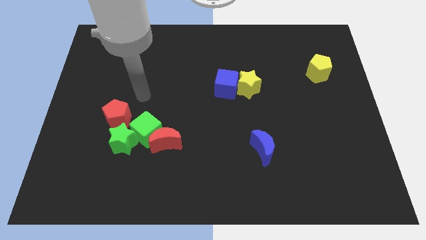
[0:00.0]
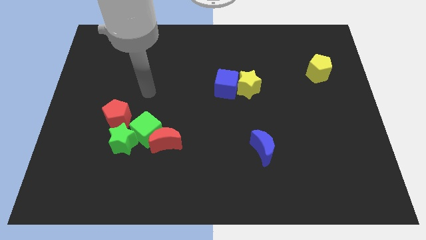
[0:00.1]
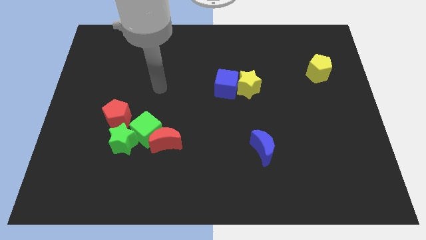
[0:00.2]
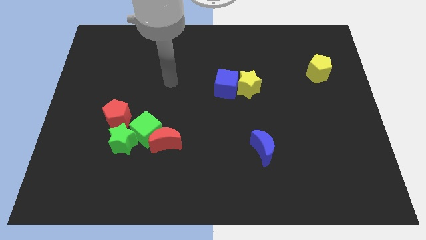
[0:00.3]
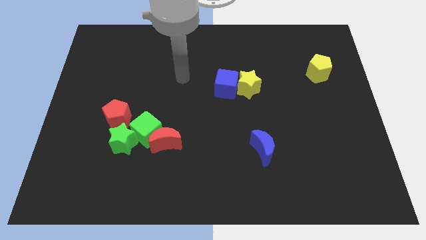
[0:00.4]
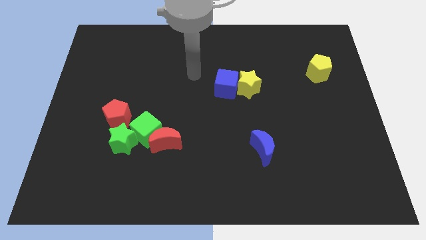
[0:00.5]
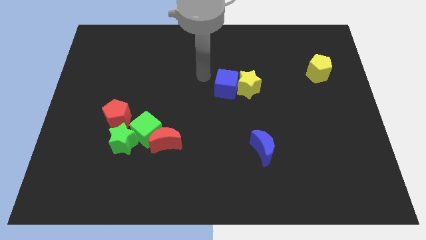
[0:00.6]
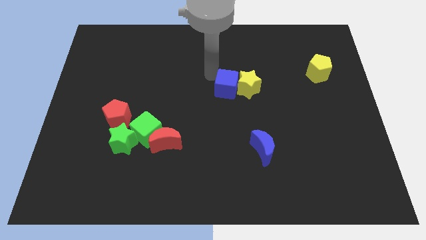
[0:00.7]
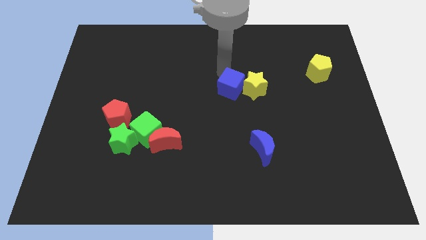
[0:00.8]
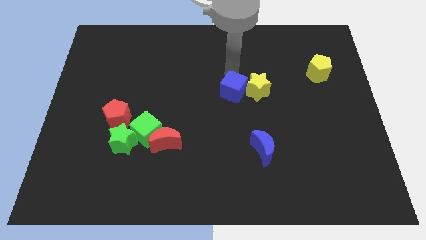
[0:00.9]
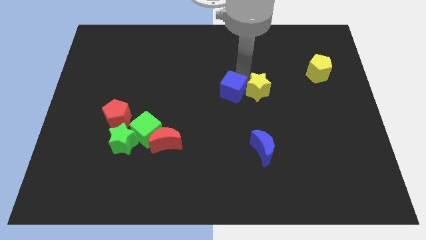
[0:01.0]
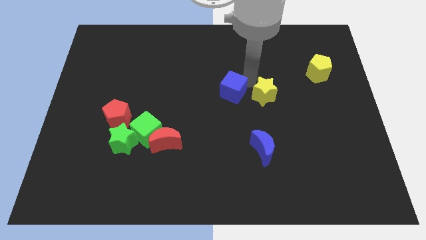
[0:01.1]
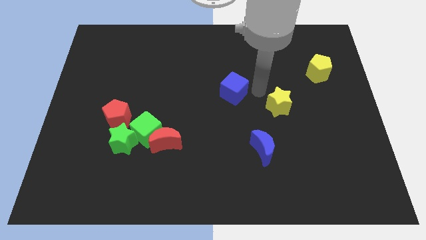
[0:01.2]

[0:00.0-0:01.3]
separate the blue cube from the yellow star

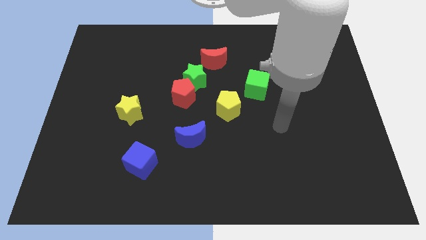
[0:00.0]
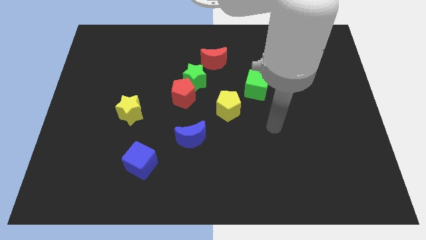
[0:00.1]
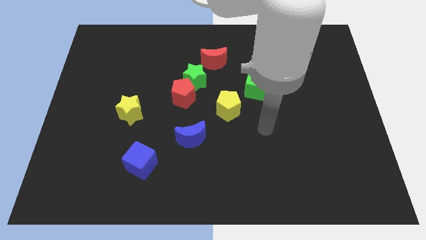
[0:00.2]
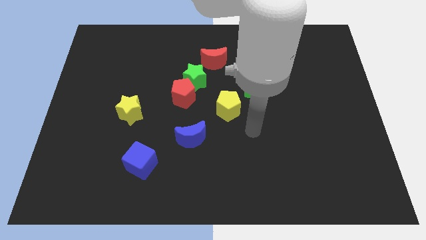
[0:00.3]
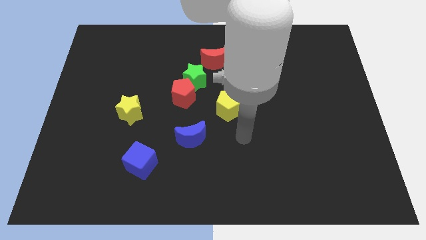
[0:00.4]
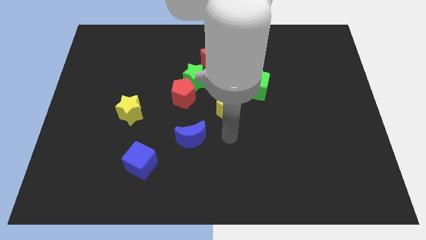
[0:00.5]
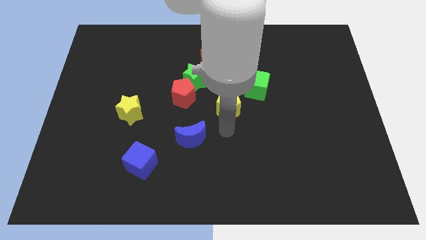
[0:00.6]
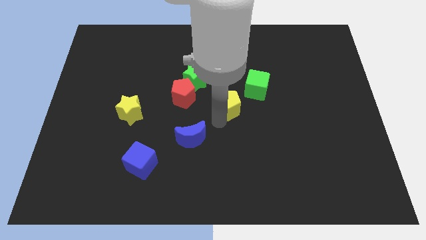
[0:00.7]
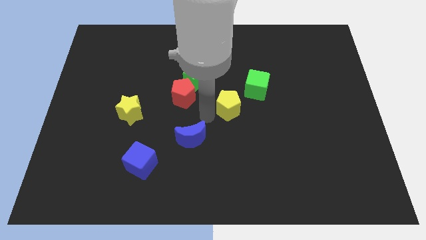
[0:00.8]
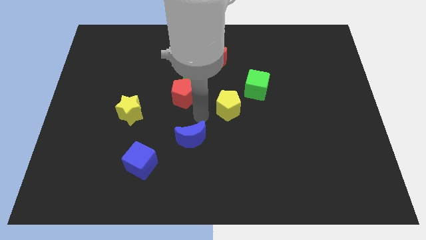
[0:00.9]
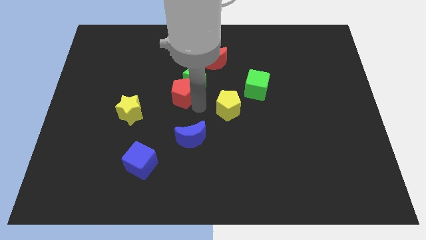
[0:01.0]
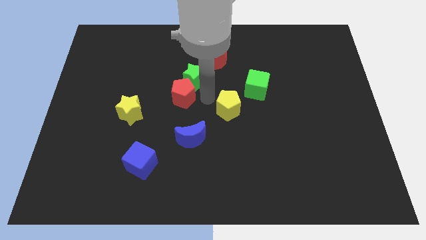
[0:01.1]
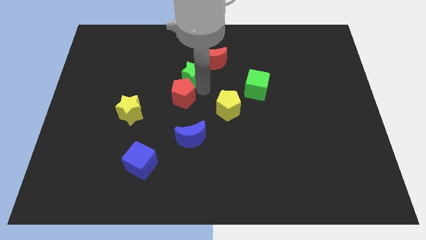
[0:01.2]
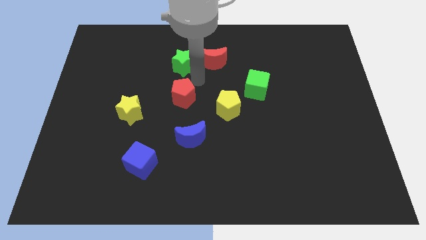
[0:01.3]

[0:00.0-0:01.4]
separate the red pentagon from the green star

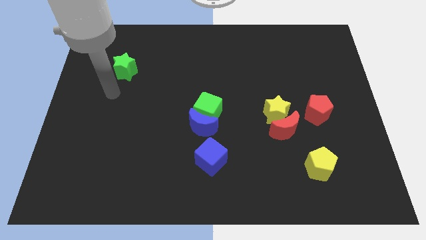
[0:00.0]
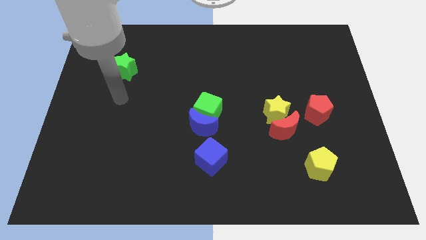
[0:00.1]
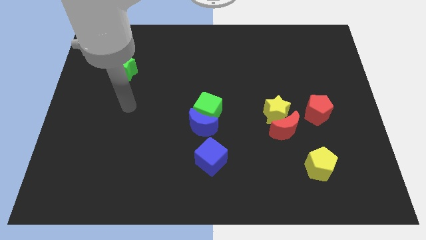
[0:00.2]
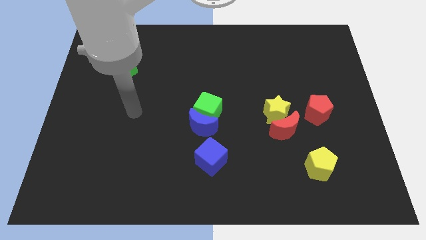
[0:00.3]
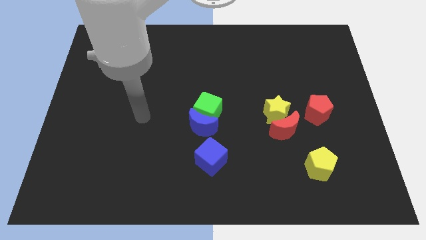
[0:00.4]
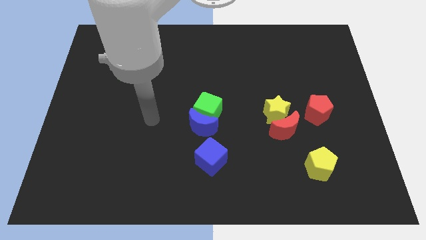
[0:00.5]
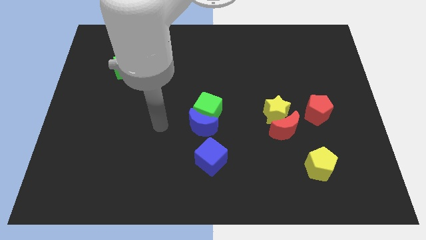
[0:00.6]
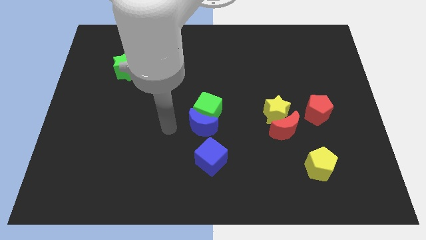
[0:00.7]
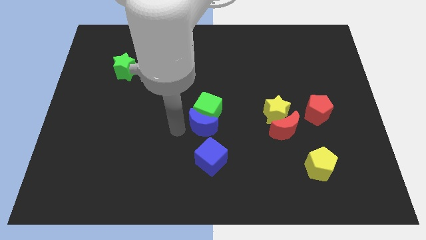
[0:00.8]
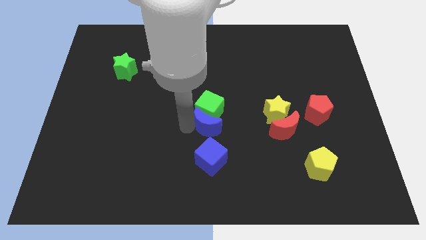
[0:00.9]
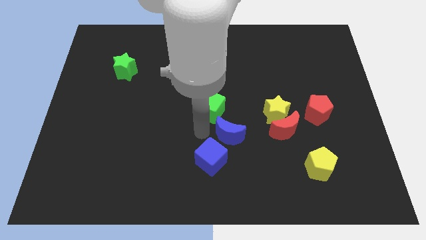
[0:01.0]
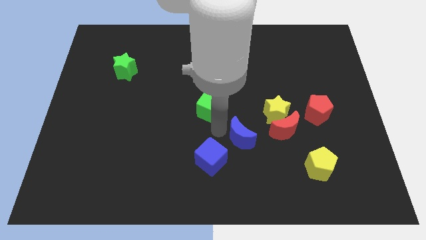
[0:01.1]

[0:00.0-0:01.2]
pull the green cube apart from the blue moon

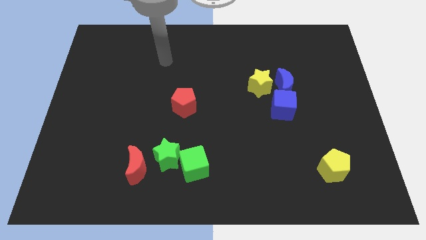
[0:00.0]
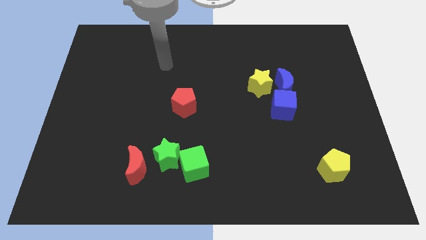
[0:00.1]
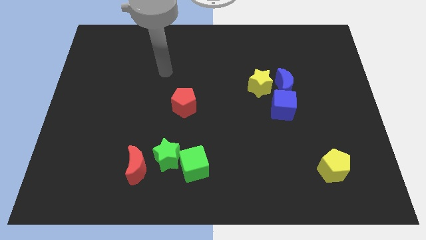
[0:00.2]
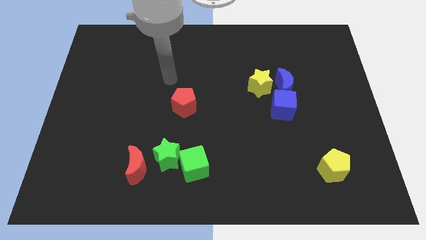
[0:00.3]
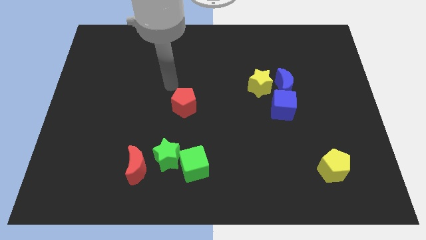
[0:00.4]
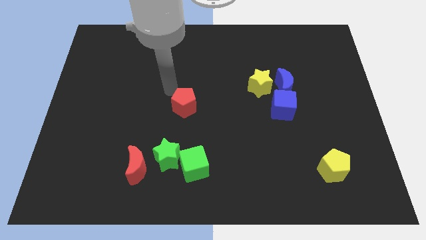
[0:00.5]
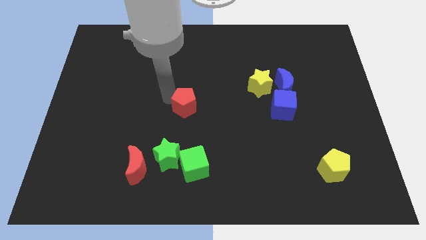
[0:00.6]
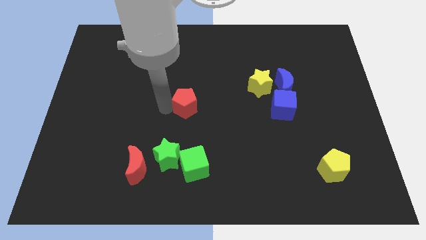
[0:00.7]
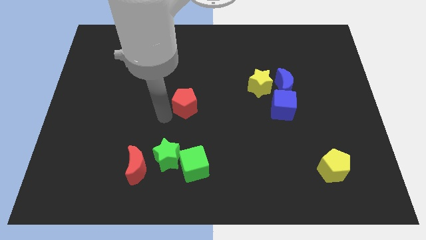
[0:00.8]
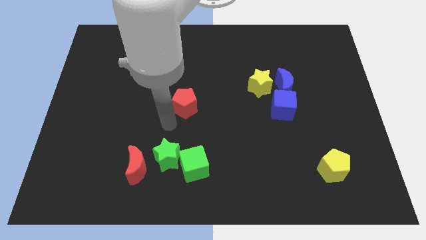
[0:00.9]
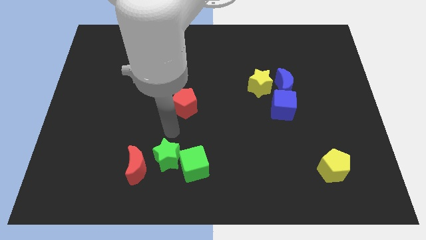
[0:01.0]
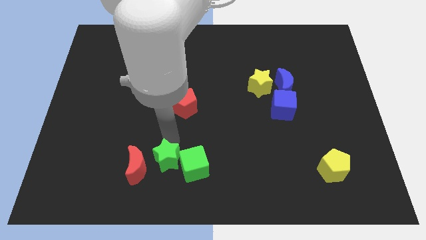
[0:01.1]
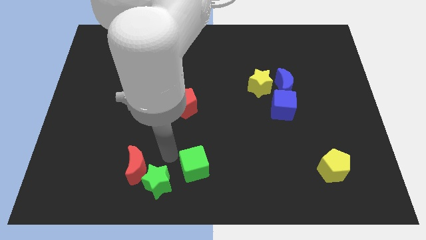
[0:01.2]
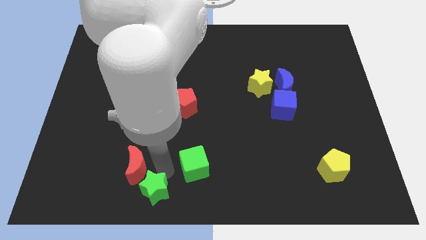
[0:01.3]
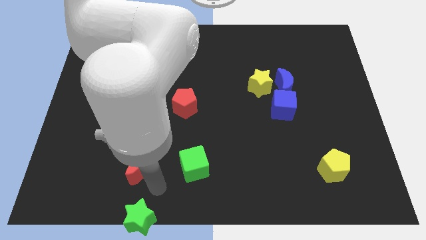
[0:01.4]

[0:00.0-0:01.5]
move the red moon away from the green star

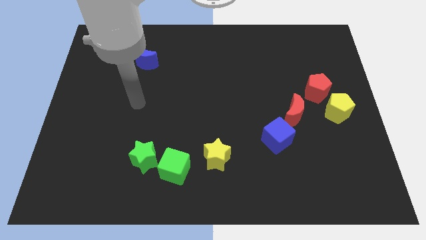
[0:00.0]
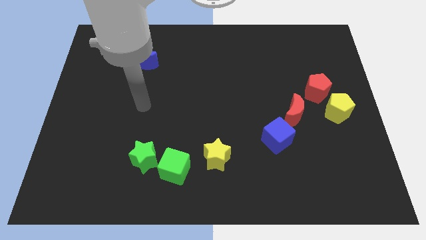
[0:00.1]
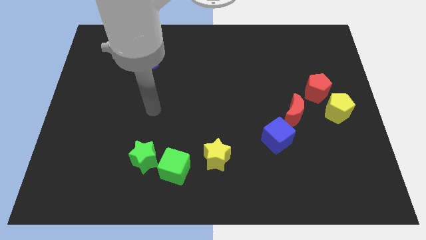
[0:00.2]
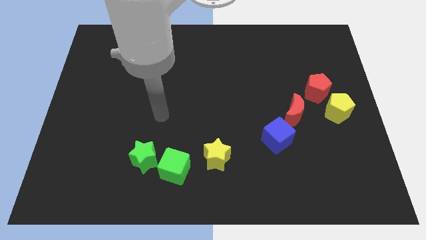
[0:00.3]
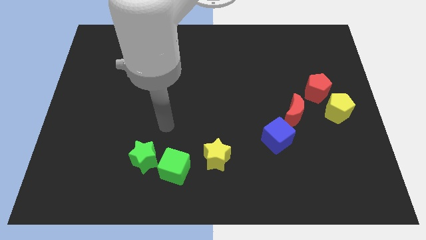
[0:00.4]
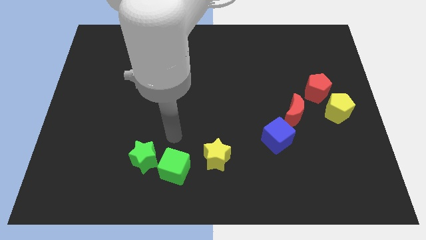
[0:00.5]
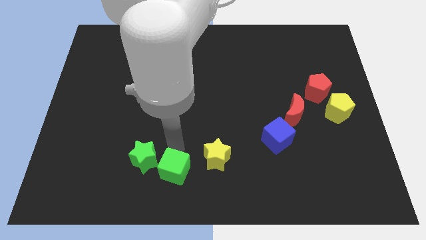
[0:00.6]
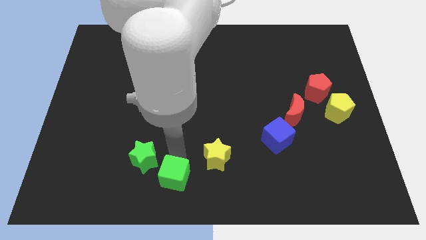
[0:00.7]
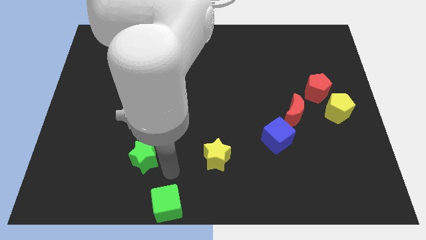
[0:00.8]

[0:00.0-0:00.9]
move the green star away from the green cube

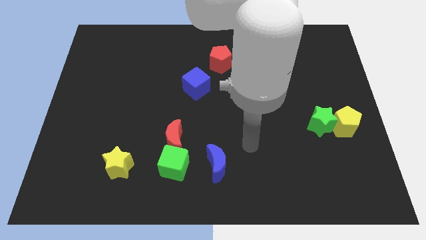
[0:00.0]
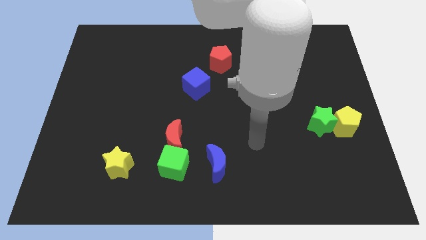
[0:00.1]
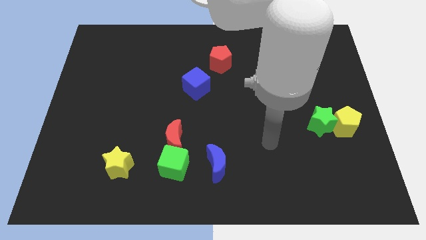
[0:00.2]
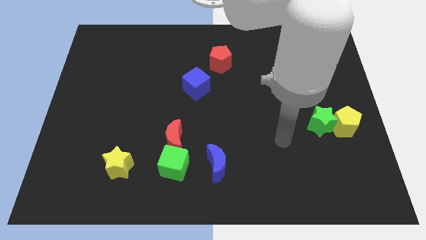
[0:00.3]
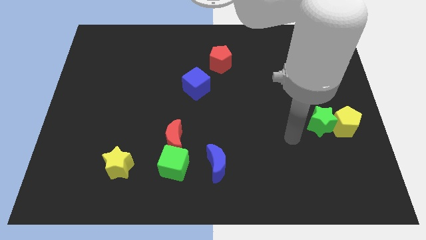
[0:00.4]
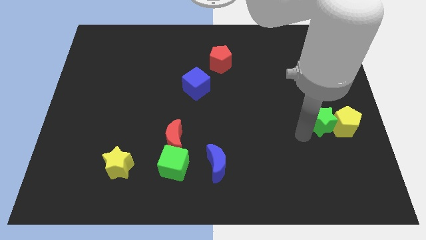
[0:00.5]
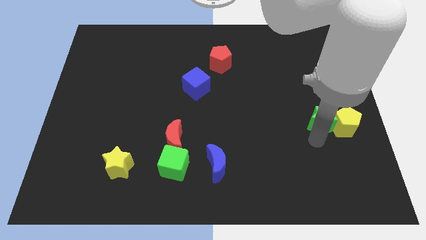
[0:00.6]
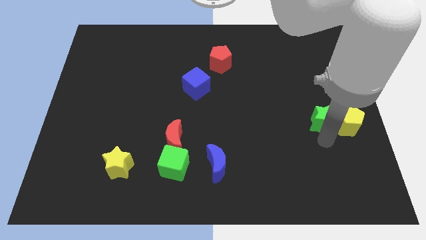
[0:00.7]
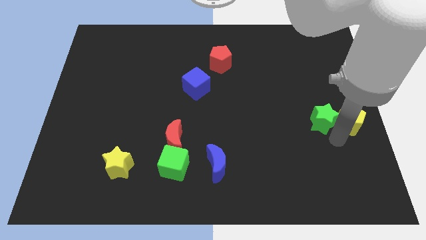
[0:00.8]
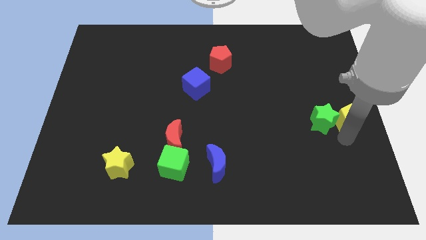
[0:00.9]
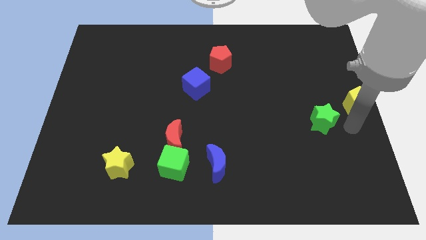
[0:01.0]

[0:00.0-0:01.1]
pull the green star apart from the yellow pentagon

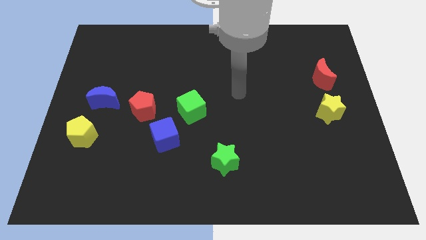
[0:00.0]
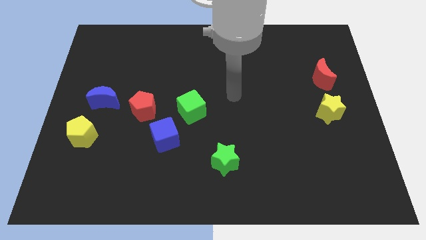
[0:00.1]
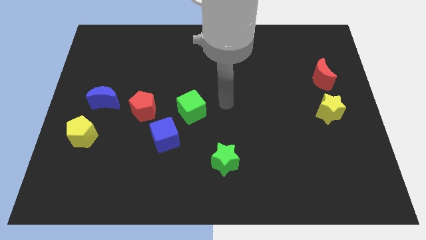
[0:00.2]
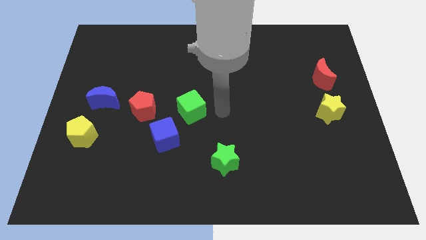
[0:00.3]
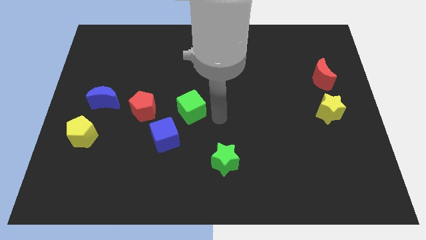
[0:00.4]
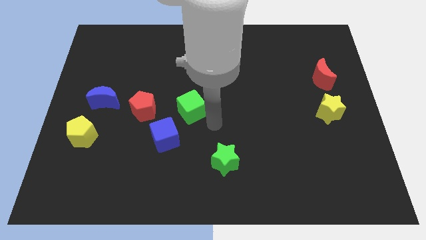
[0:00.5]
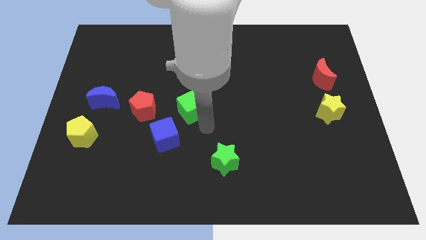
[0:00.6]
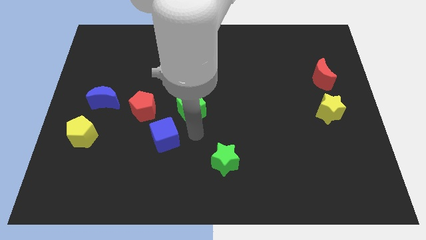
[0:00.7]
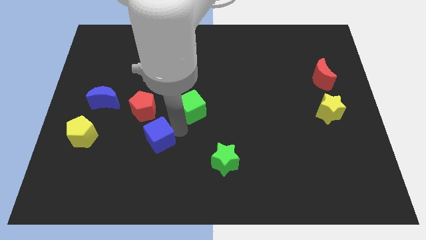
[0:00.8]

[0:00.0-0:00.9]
move the green cube away from the blue cube

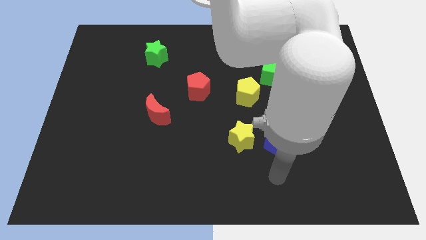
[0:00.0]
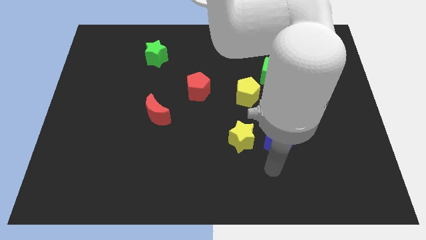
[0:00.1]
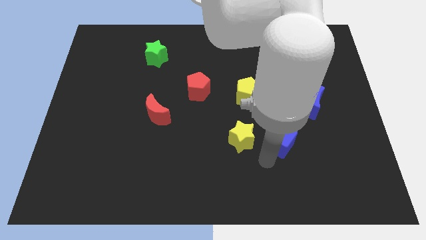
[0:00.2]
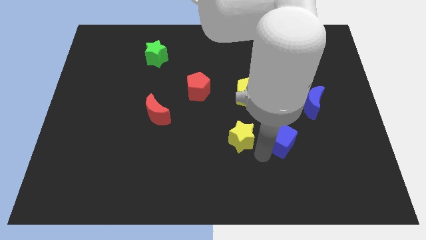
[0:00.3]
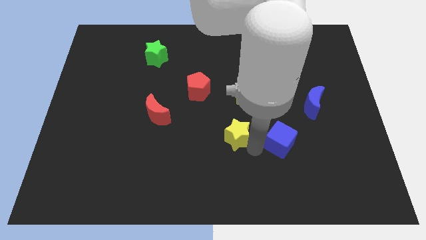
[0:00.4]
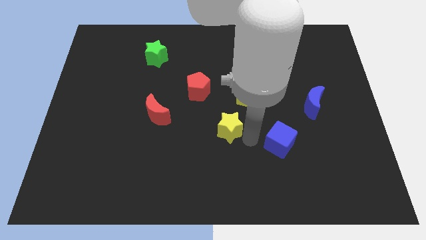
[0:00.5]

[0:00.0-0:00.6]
pull the blue cube apart from the yellow star

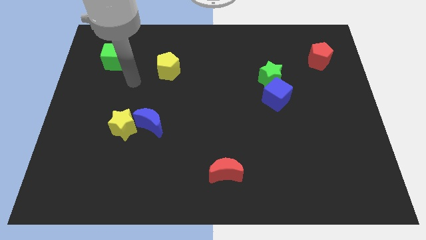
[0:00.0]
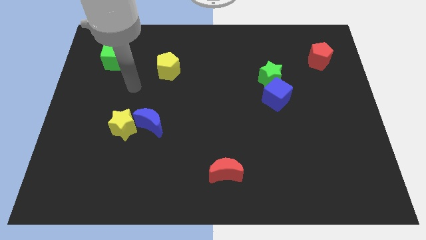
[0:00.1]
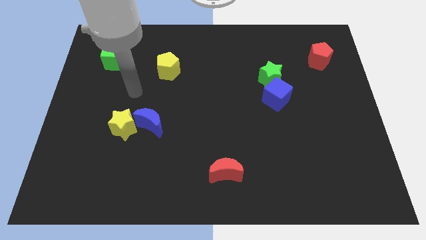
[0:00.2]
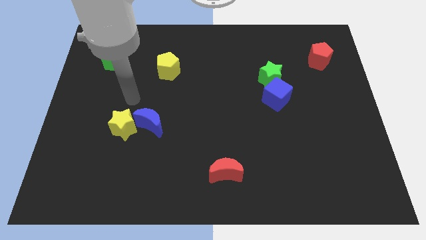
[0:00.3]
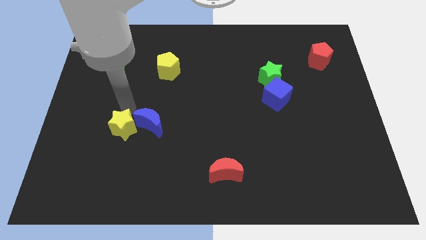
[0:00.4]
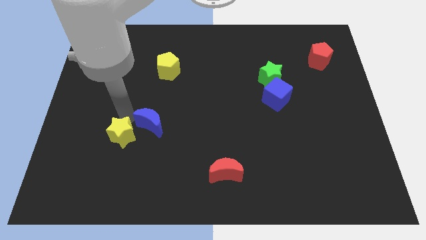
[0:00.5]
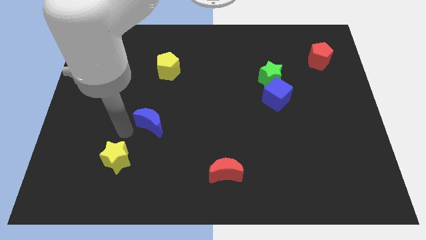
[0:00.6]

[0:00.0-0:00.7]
move the blue moon away from the yellow star
